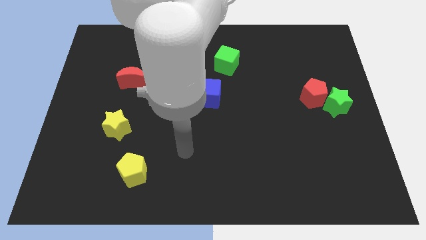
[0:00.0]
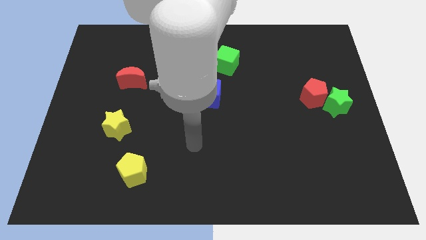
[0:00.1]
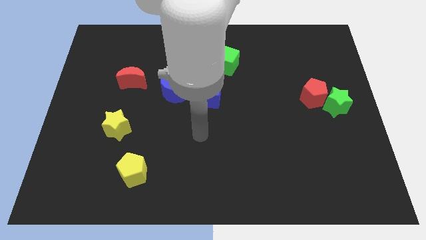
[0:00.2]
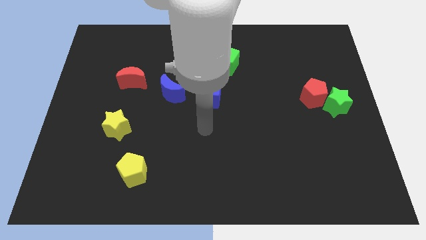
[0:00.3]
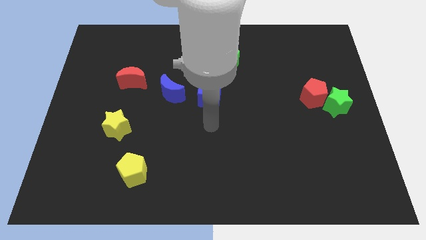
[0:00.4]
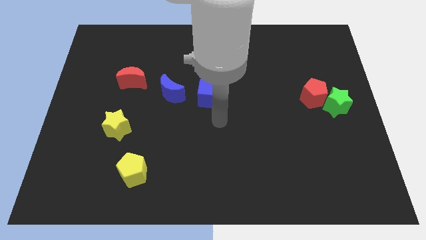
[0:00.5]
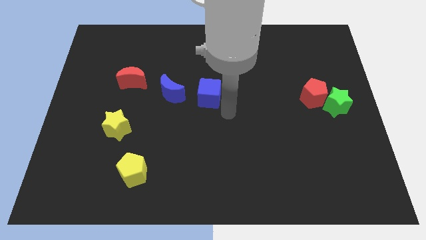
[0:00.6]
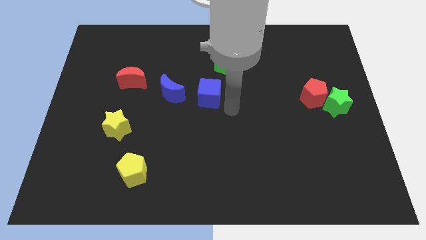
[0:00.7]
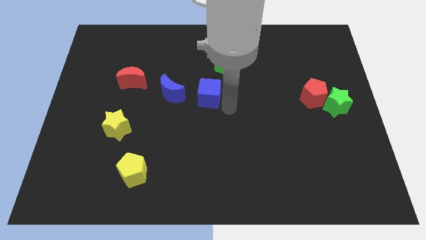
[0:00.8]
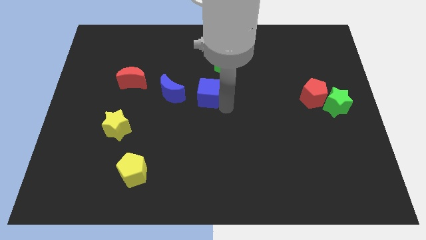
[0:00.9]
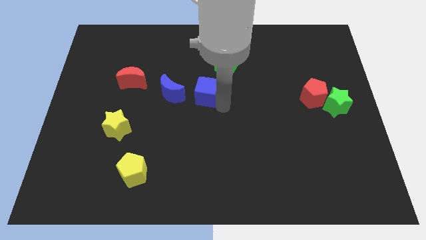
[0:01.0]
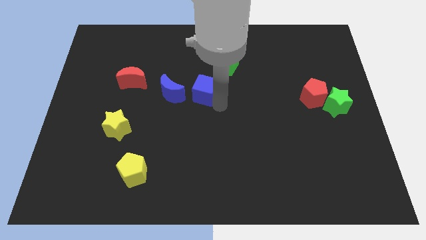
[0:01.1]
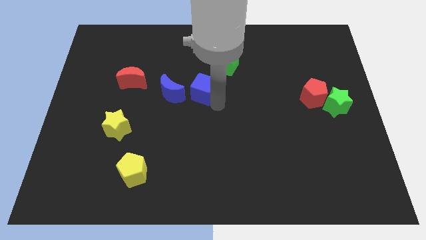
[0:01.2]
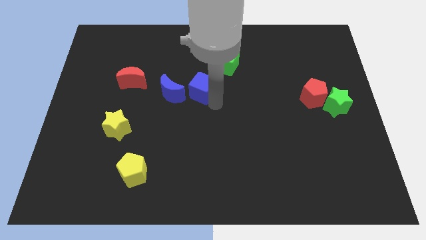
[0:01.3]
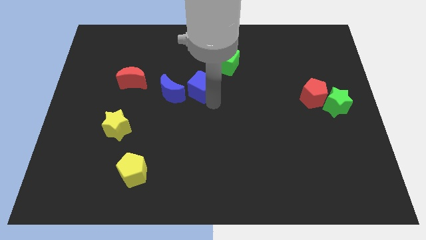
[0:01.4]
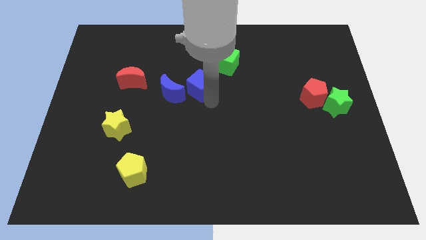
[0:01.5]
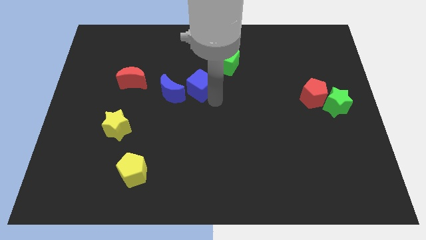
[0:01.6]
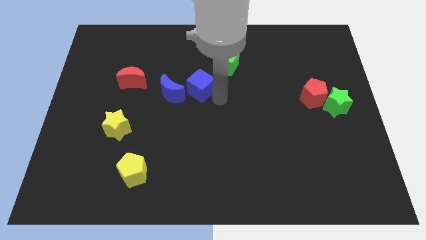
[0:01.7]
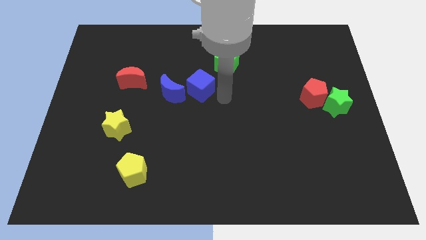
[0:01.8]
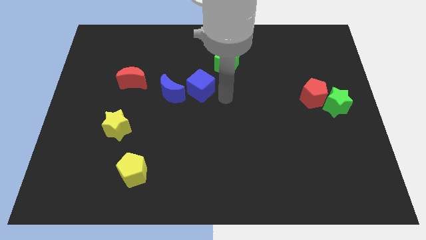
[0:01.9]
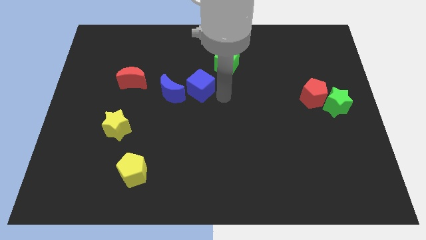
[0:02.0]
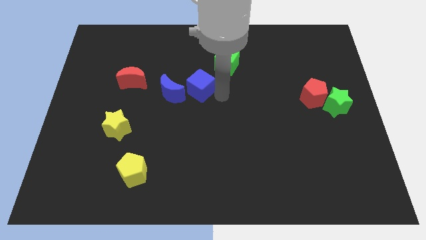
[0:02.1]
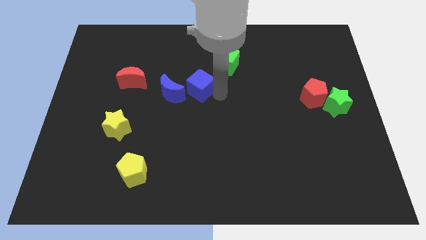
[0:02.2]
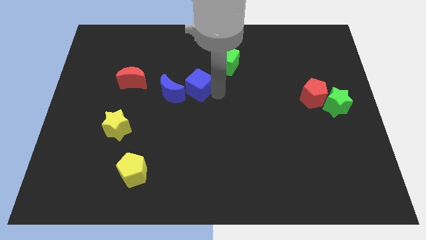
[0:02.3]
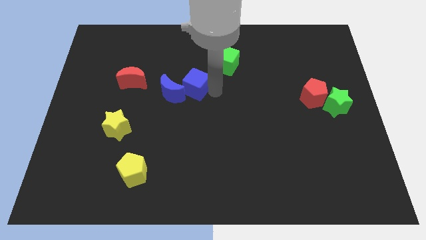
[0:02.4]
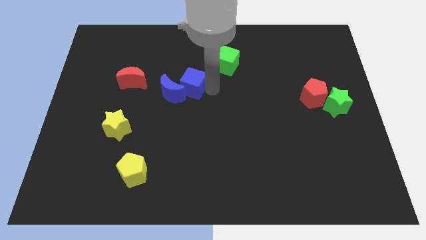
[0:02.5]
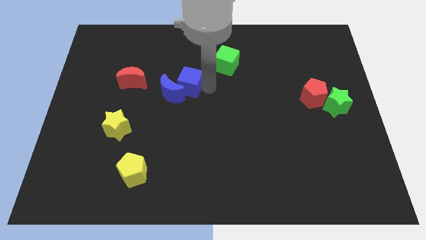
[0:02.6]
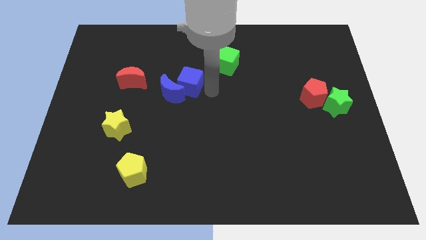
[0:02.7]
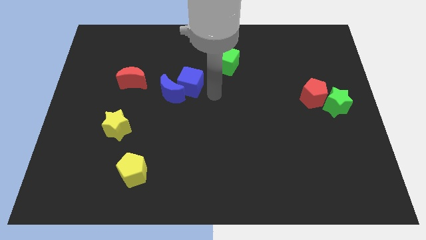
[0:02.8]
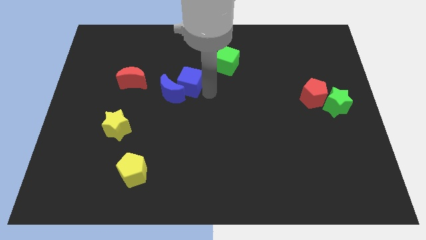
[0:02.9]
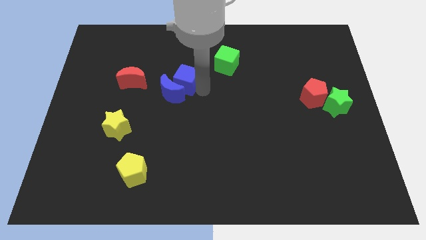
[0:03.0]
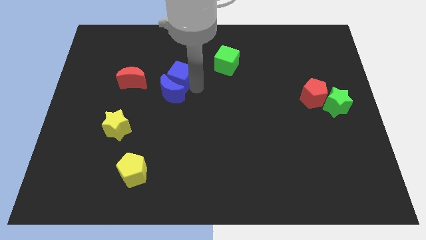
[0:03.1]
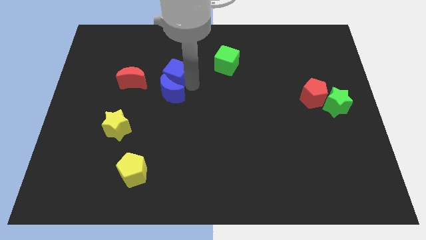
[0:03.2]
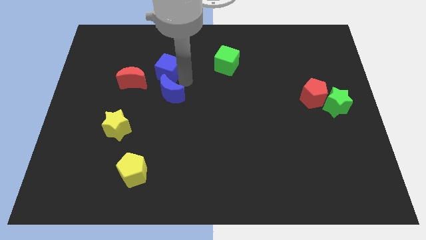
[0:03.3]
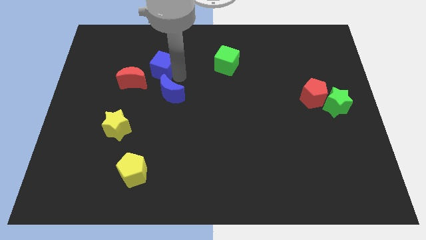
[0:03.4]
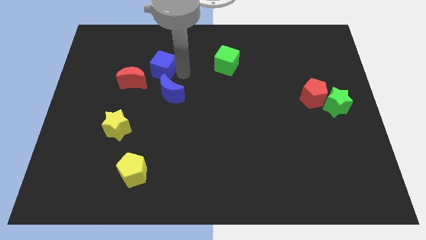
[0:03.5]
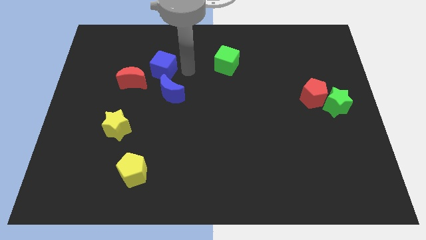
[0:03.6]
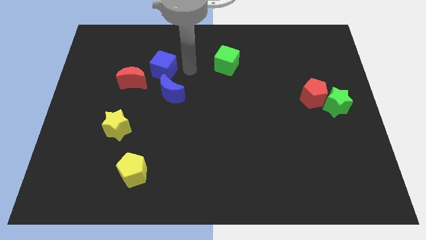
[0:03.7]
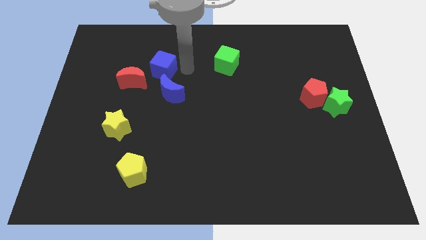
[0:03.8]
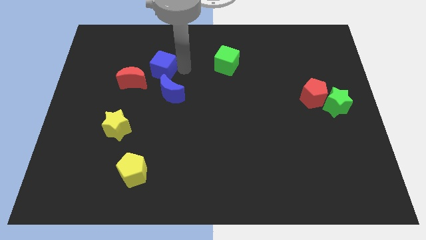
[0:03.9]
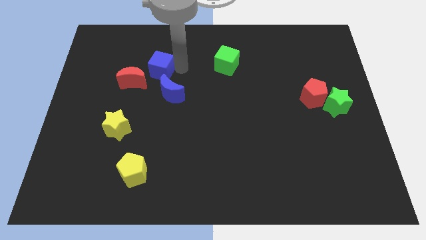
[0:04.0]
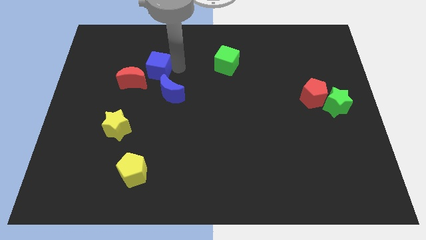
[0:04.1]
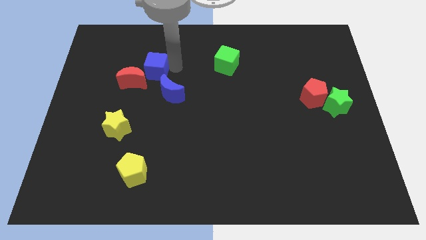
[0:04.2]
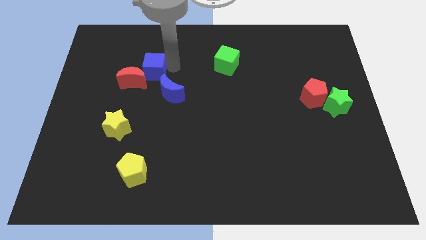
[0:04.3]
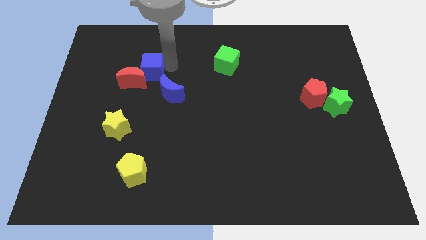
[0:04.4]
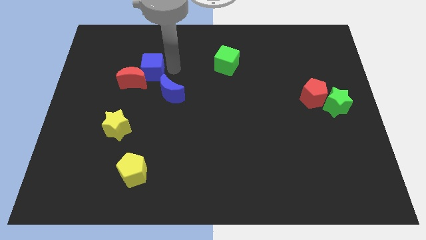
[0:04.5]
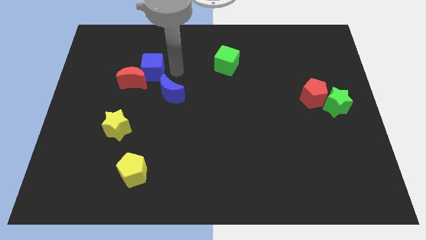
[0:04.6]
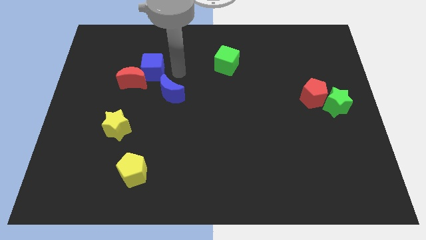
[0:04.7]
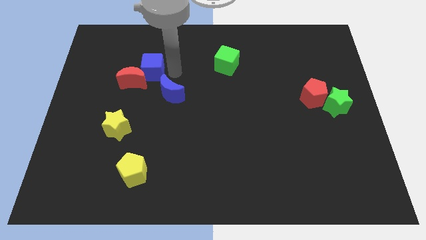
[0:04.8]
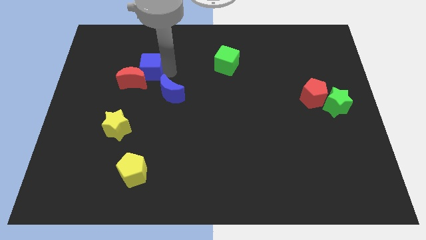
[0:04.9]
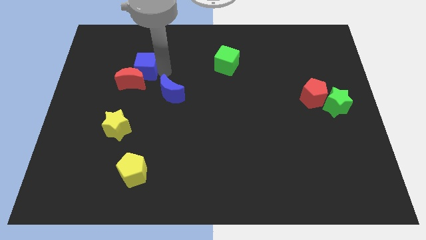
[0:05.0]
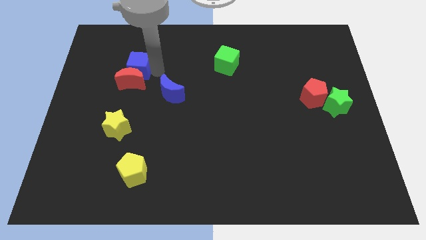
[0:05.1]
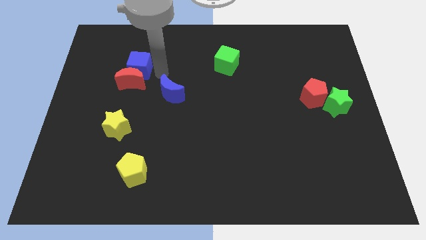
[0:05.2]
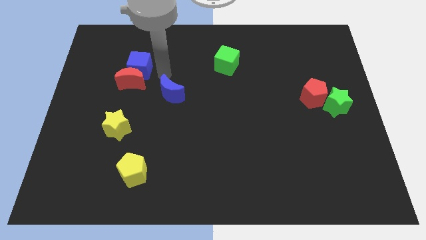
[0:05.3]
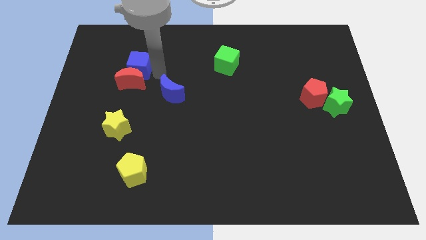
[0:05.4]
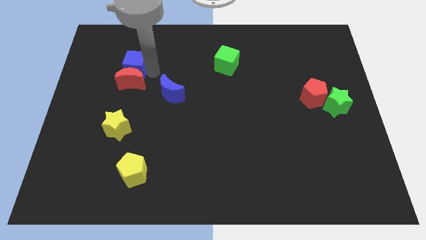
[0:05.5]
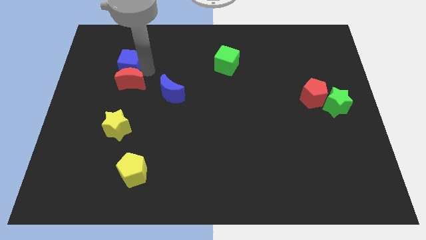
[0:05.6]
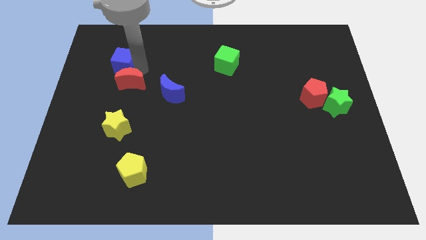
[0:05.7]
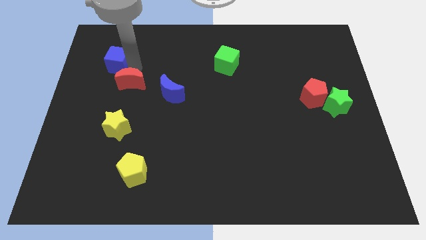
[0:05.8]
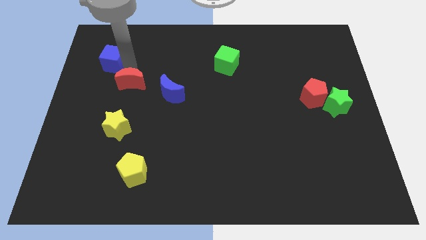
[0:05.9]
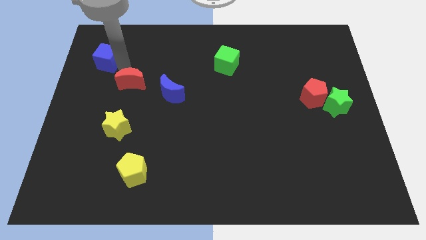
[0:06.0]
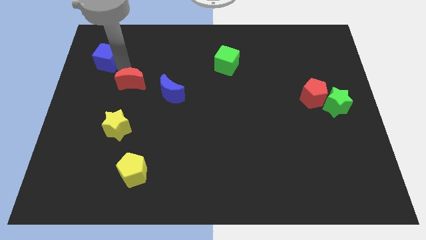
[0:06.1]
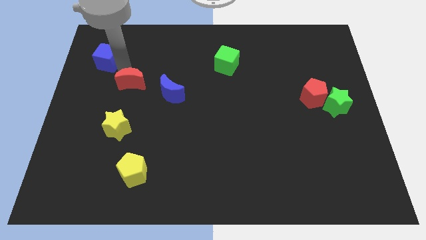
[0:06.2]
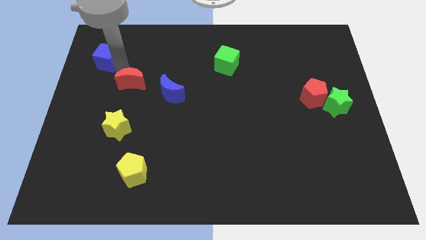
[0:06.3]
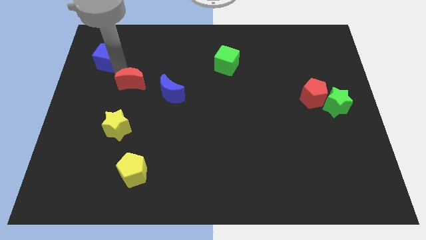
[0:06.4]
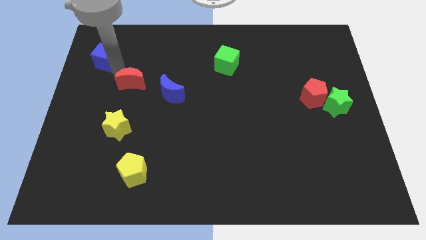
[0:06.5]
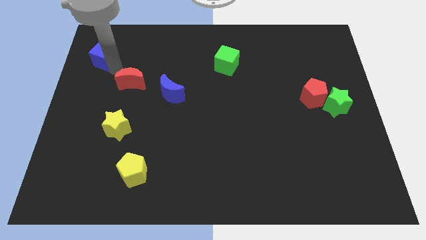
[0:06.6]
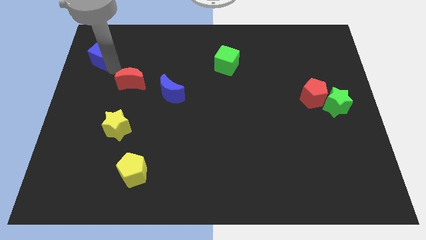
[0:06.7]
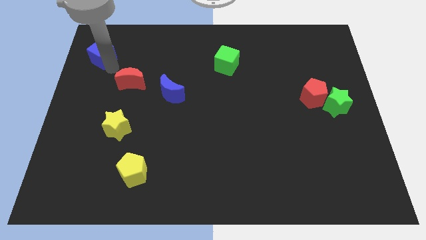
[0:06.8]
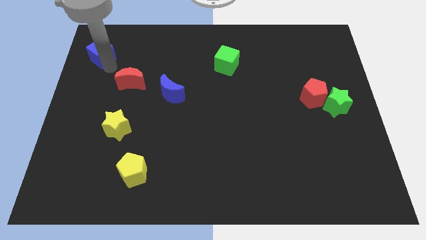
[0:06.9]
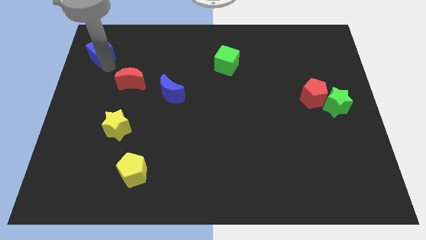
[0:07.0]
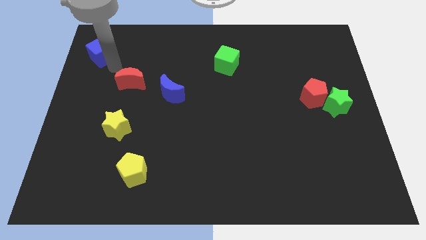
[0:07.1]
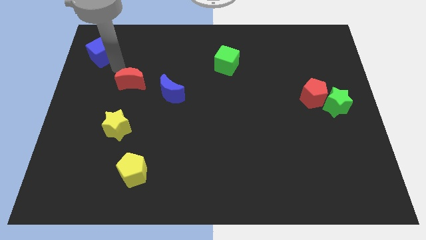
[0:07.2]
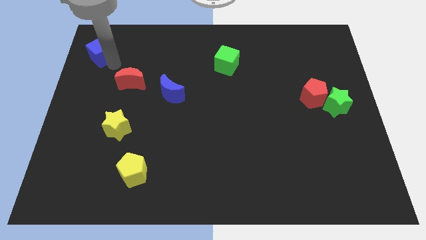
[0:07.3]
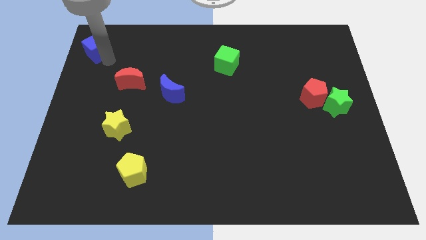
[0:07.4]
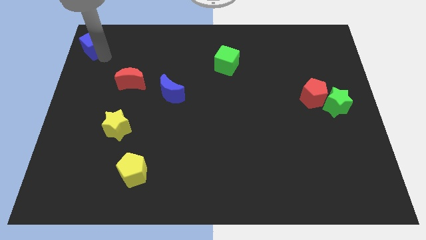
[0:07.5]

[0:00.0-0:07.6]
put the blue cube to the upper left corner
